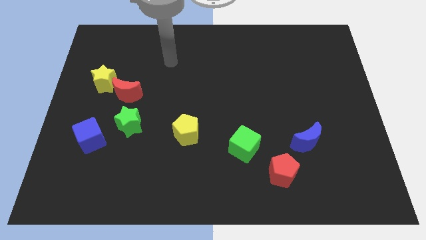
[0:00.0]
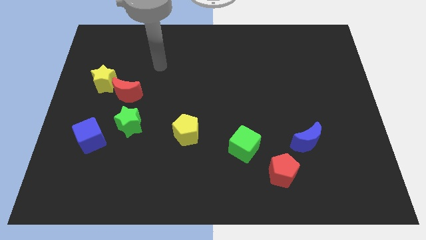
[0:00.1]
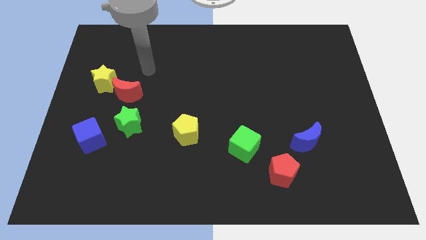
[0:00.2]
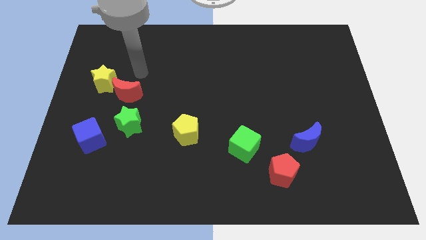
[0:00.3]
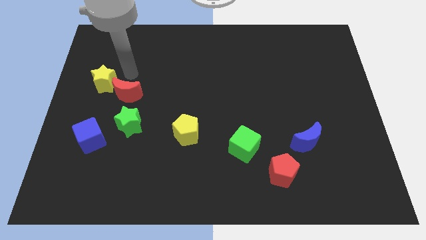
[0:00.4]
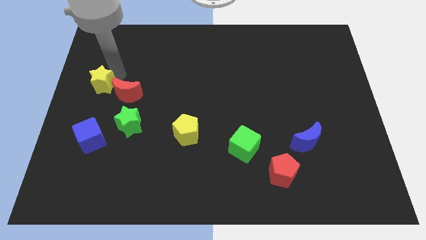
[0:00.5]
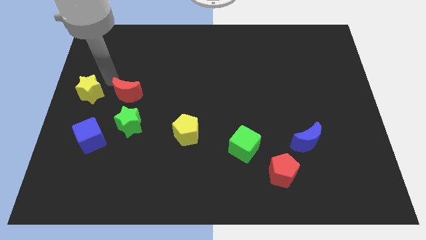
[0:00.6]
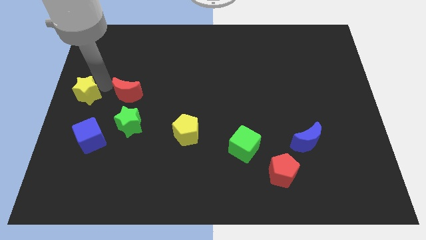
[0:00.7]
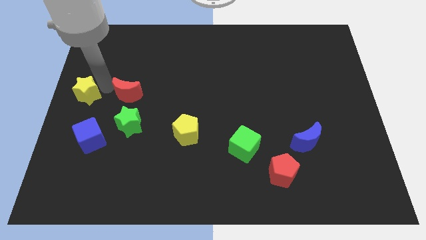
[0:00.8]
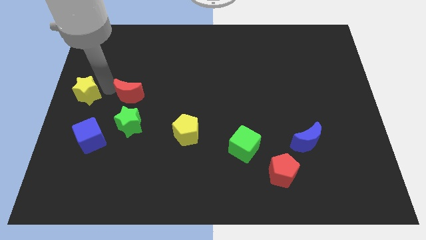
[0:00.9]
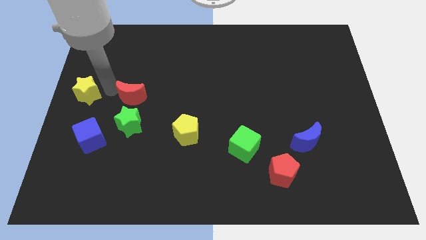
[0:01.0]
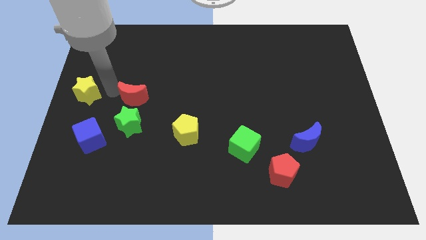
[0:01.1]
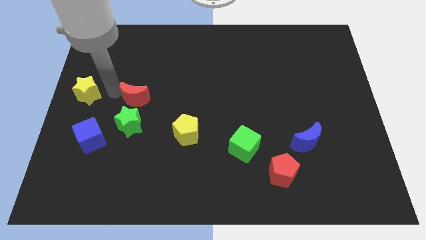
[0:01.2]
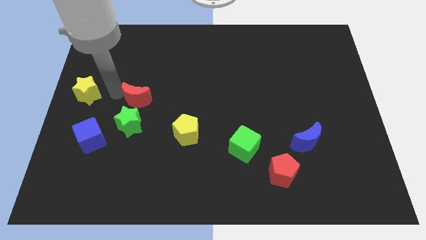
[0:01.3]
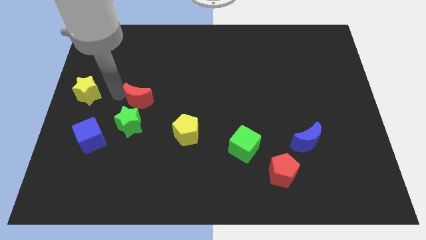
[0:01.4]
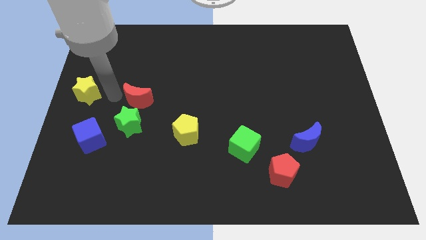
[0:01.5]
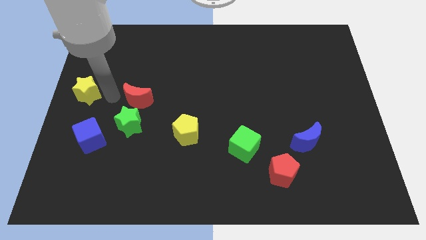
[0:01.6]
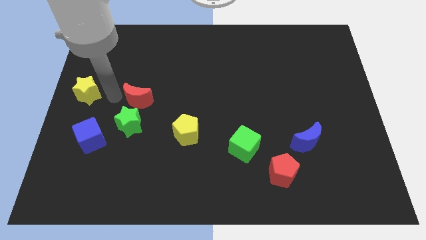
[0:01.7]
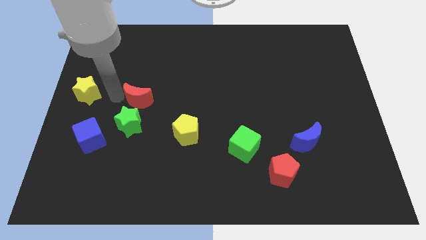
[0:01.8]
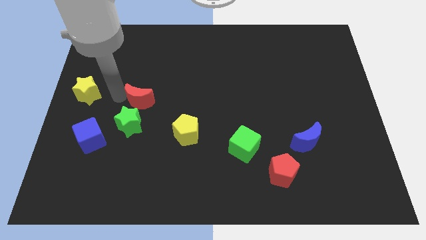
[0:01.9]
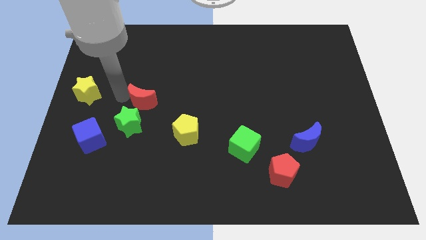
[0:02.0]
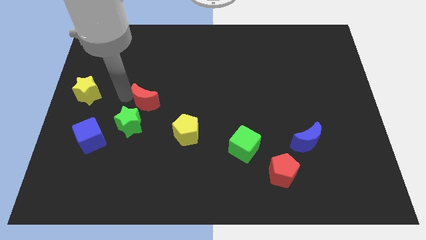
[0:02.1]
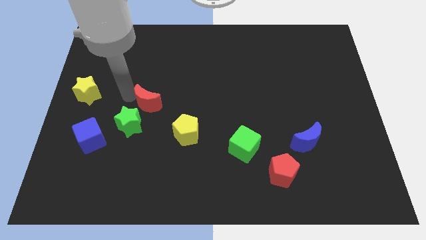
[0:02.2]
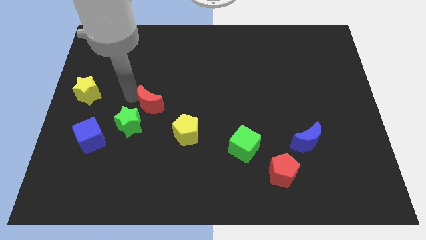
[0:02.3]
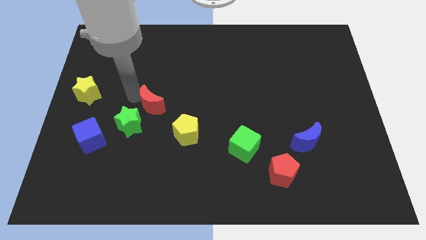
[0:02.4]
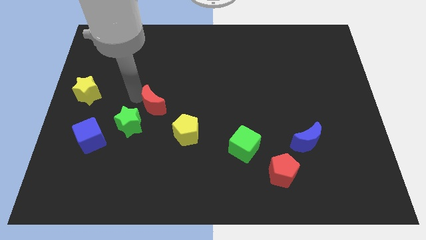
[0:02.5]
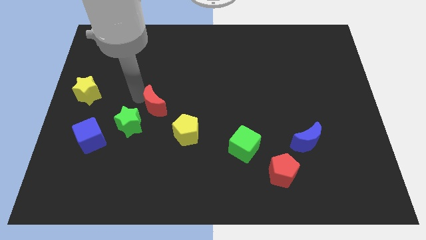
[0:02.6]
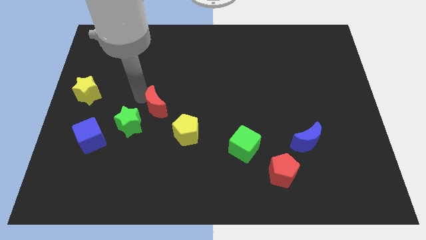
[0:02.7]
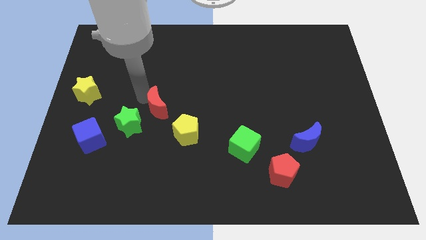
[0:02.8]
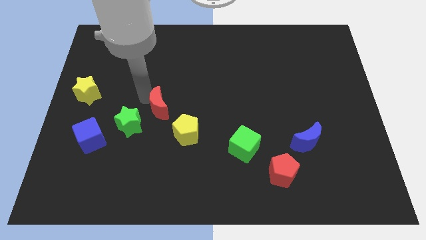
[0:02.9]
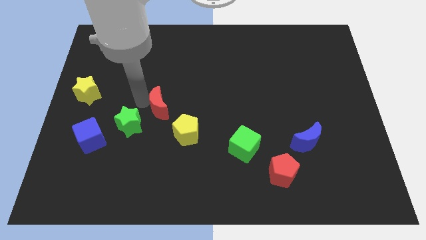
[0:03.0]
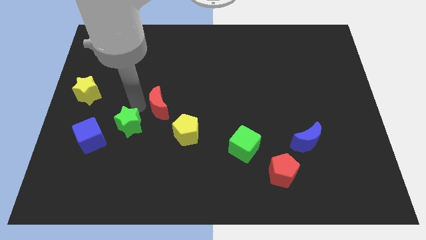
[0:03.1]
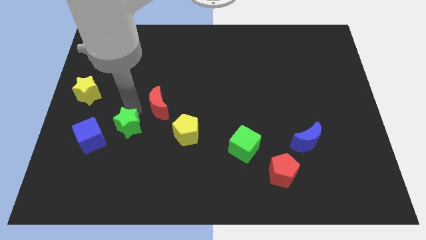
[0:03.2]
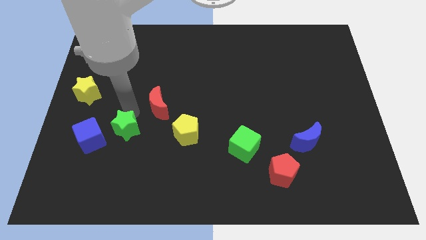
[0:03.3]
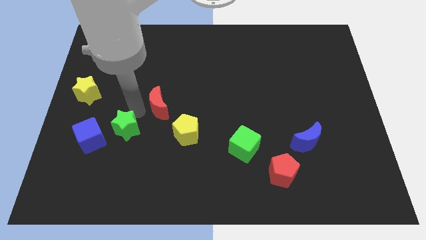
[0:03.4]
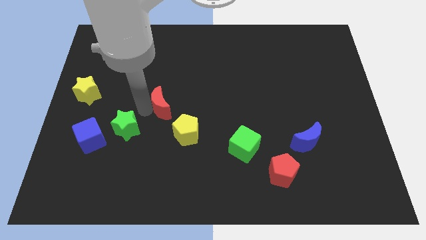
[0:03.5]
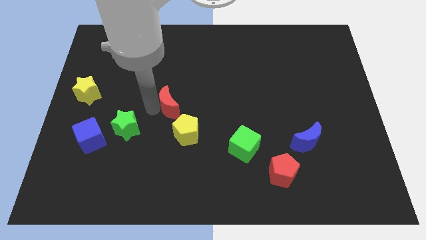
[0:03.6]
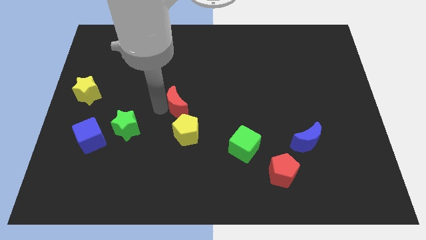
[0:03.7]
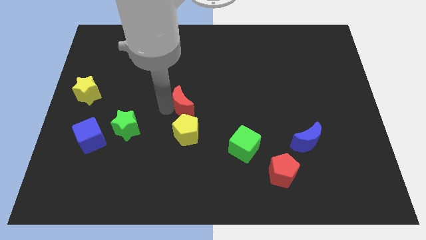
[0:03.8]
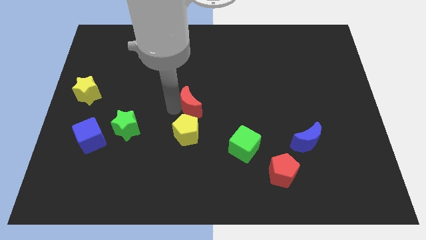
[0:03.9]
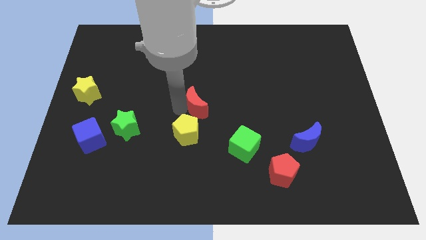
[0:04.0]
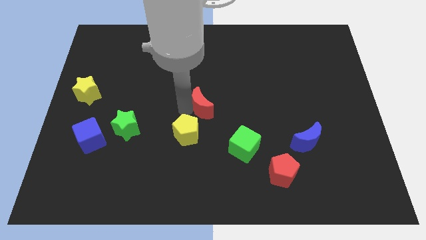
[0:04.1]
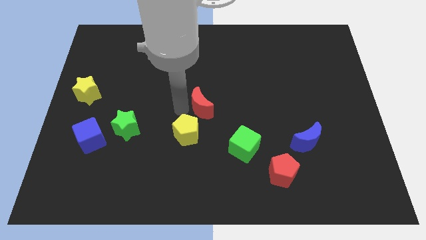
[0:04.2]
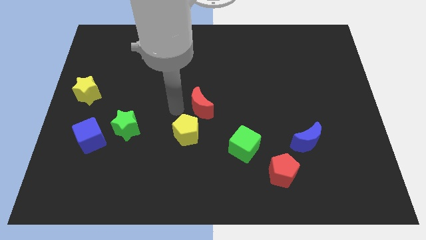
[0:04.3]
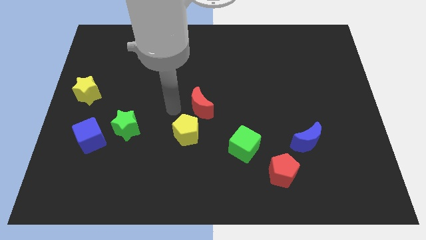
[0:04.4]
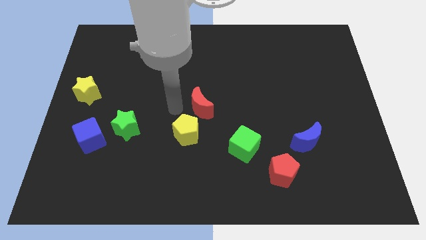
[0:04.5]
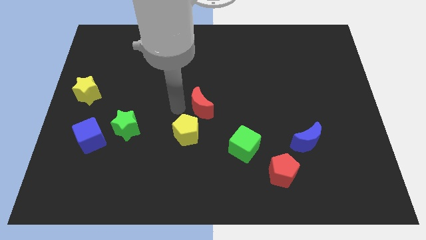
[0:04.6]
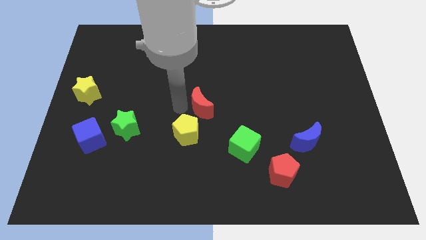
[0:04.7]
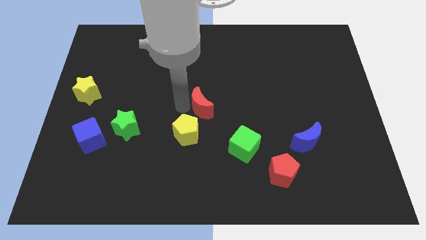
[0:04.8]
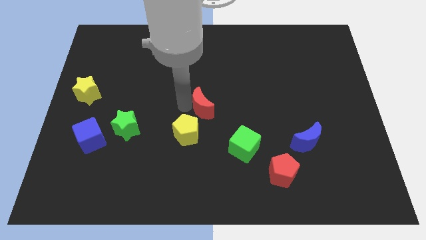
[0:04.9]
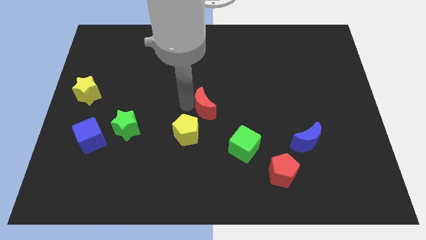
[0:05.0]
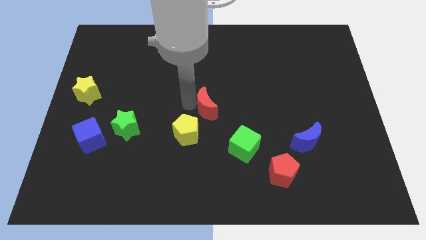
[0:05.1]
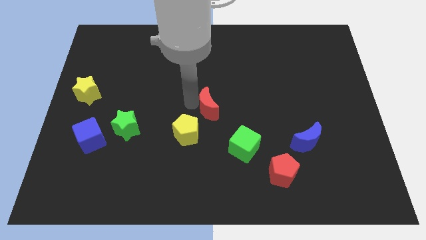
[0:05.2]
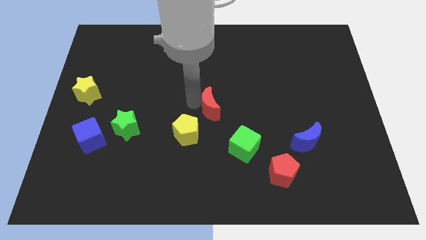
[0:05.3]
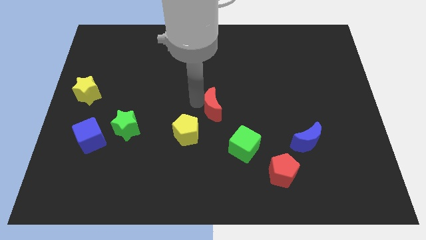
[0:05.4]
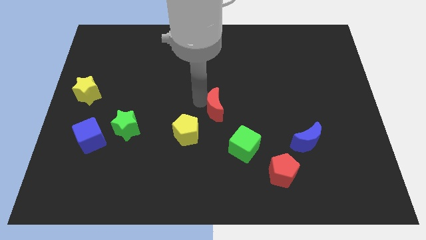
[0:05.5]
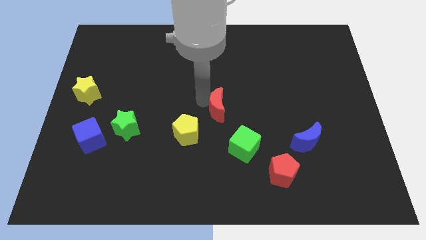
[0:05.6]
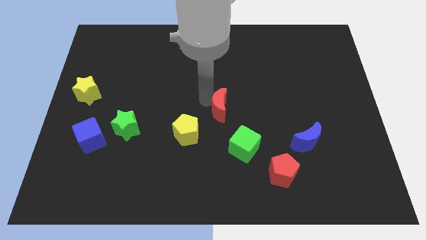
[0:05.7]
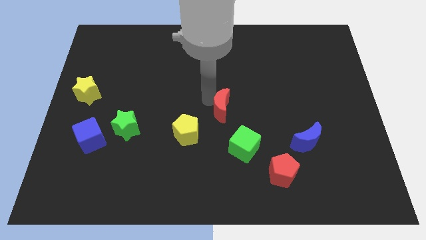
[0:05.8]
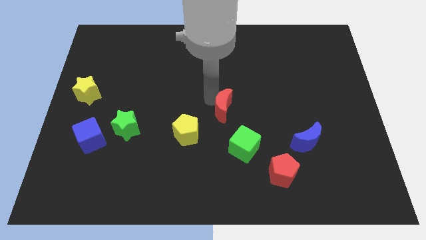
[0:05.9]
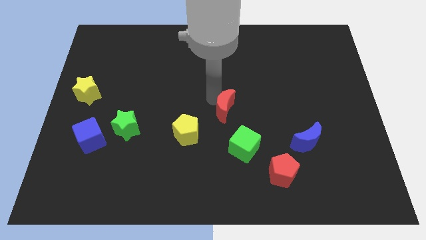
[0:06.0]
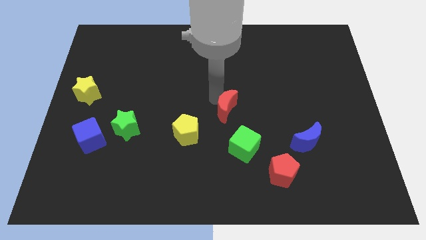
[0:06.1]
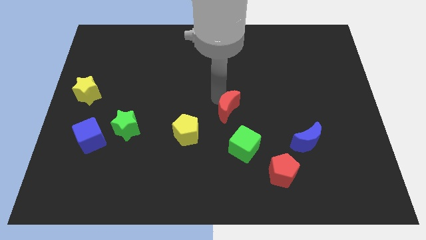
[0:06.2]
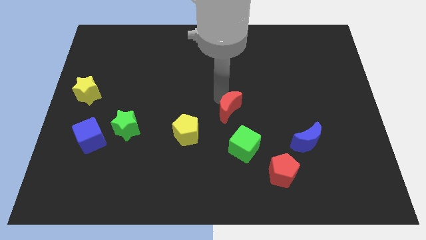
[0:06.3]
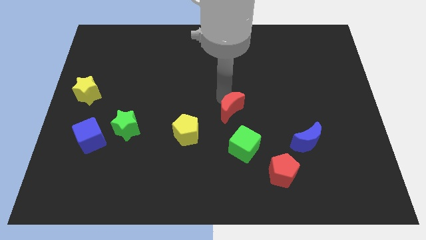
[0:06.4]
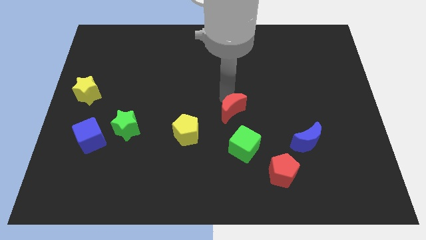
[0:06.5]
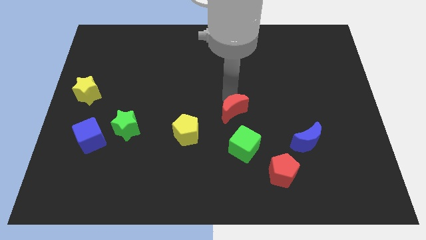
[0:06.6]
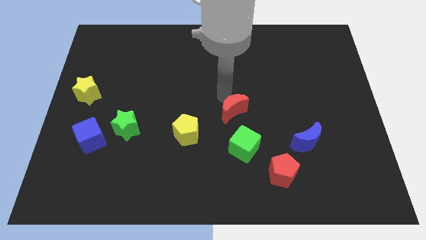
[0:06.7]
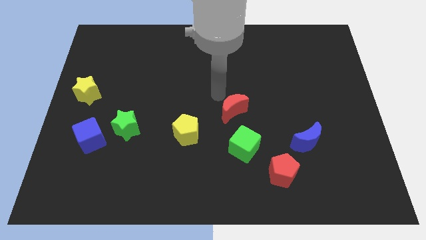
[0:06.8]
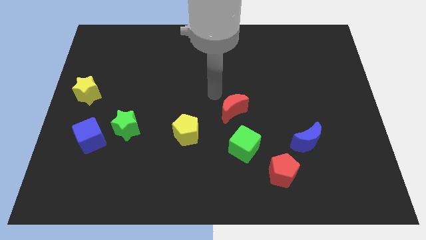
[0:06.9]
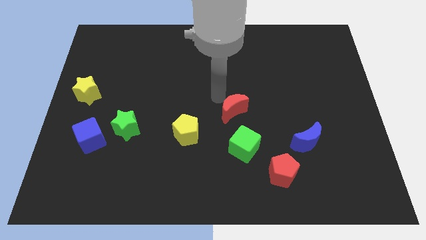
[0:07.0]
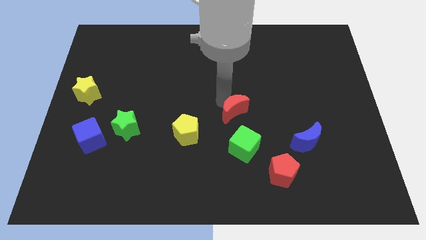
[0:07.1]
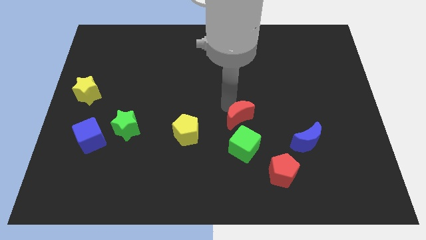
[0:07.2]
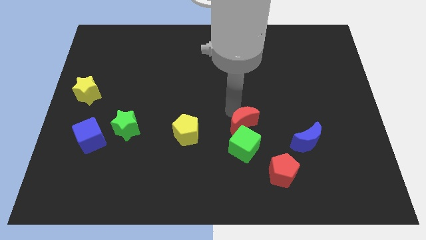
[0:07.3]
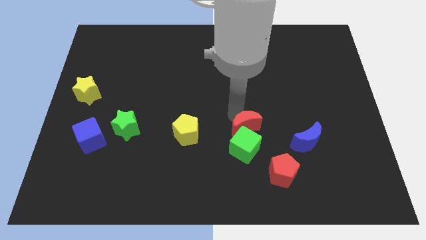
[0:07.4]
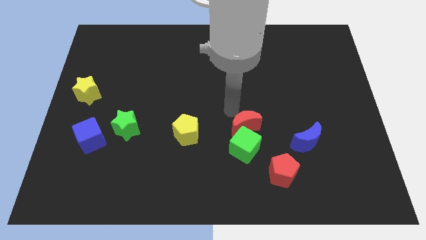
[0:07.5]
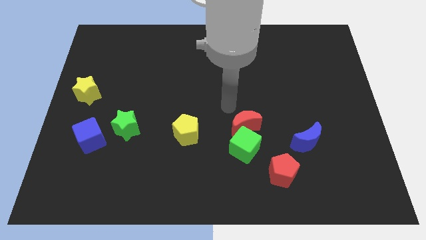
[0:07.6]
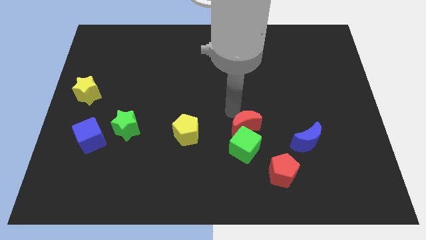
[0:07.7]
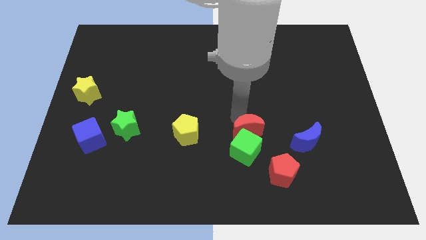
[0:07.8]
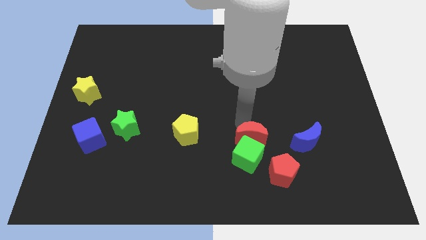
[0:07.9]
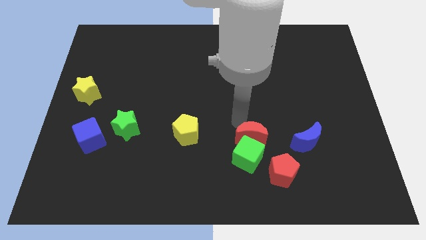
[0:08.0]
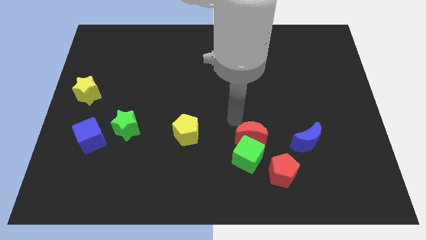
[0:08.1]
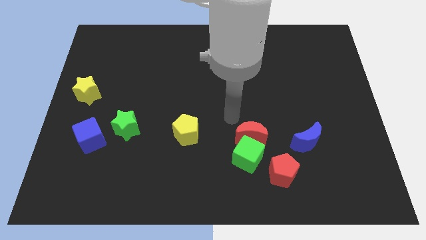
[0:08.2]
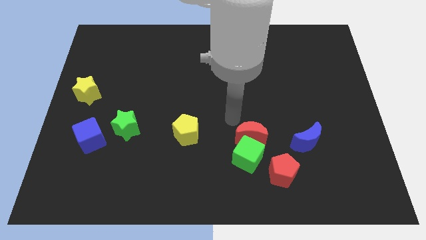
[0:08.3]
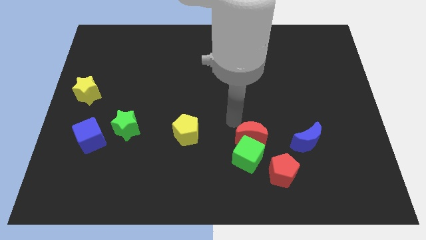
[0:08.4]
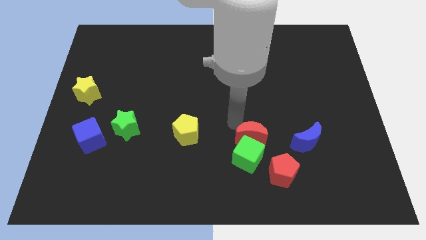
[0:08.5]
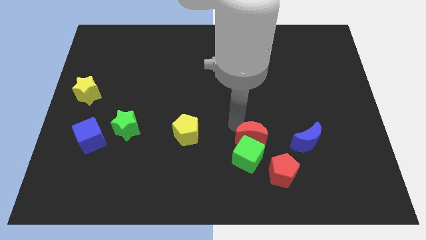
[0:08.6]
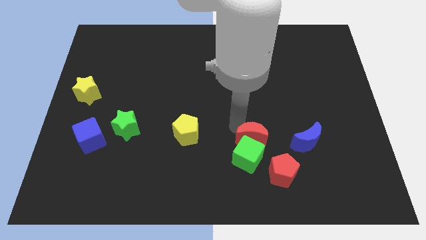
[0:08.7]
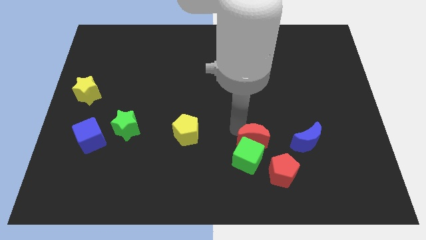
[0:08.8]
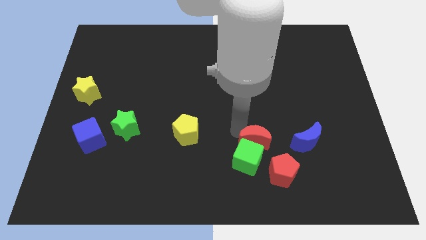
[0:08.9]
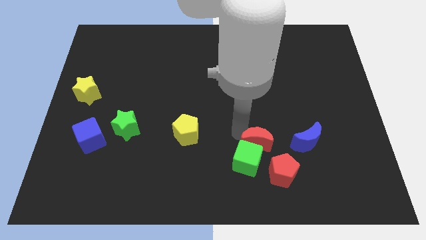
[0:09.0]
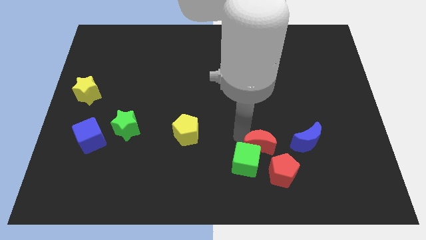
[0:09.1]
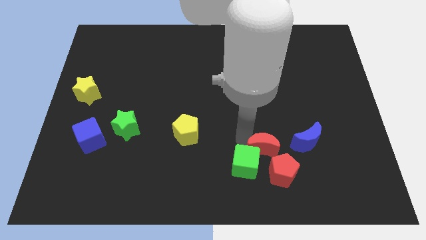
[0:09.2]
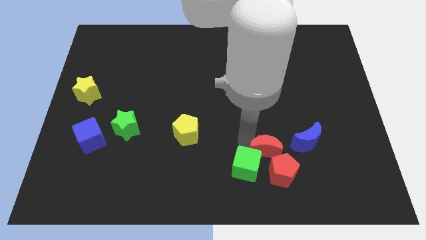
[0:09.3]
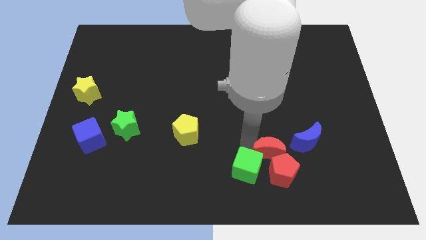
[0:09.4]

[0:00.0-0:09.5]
slide the red moon next to the red pentagon
